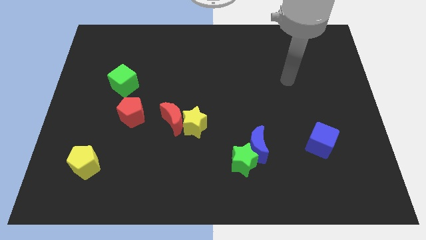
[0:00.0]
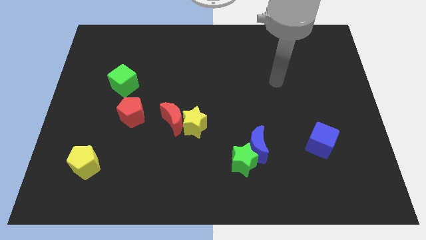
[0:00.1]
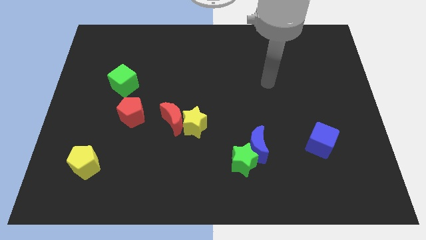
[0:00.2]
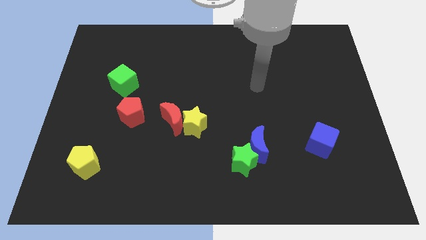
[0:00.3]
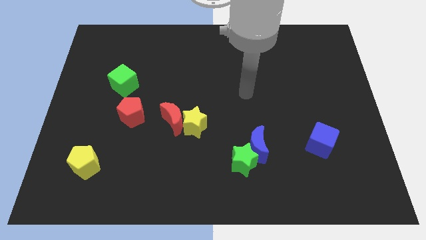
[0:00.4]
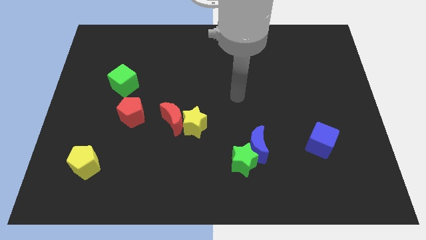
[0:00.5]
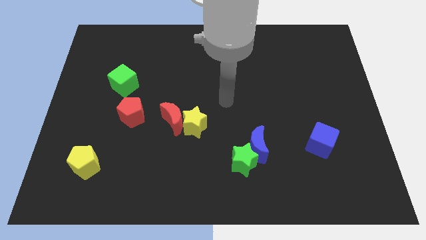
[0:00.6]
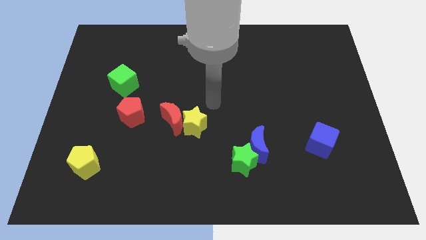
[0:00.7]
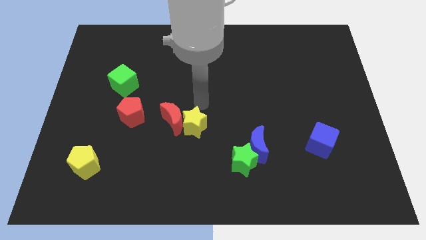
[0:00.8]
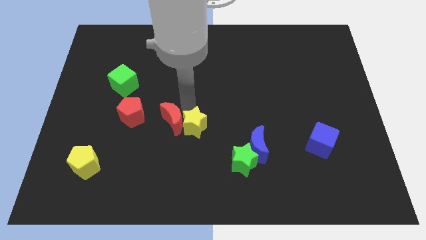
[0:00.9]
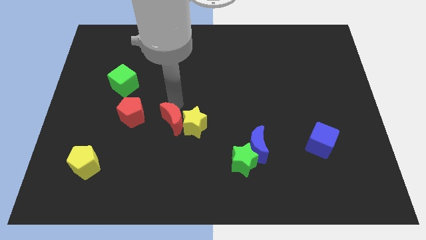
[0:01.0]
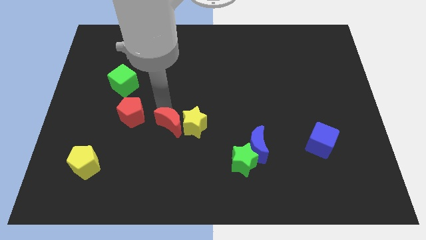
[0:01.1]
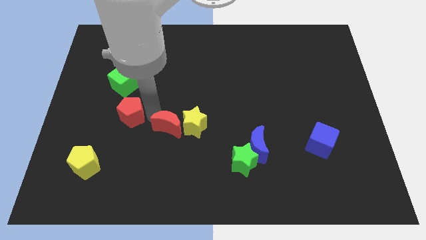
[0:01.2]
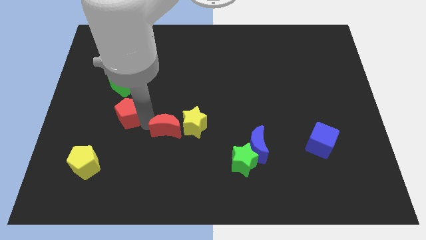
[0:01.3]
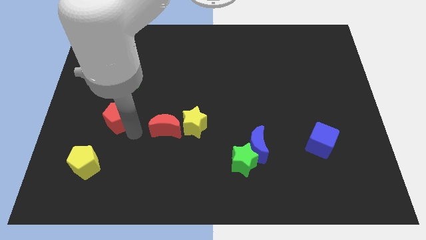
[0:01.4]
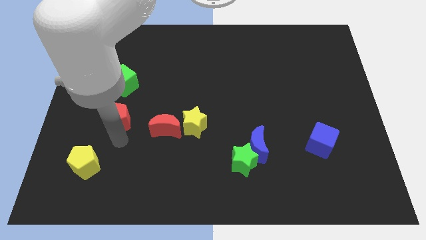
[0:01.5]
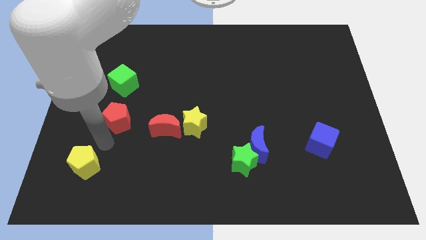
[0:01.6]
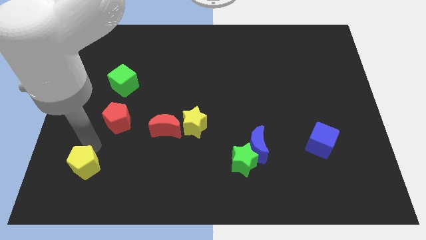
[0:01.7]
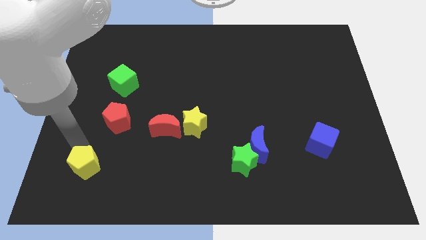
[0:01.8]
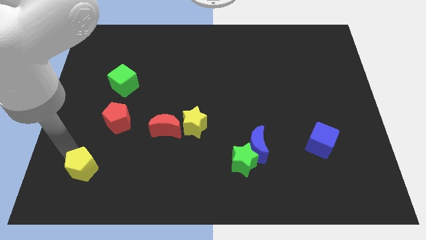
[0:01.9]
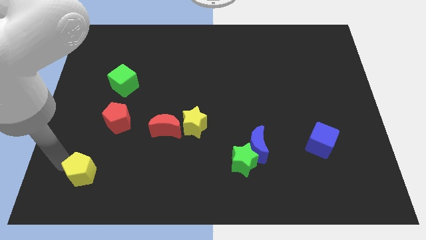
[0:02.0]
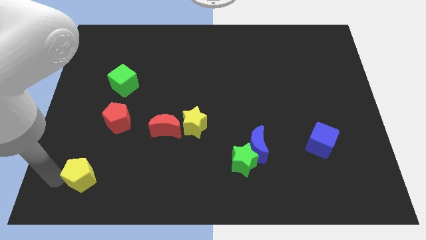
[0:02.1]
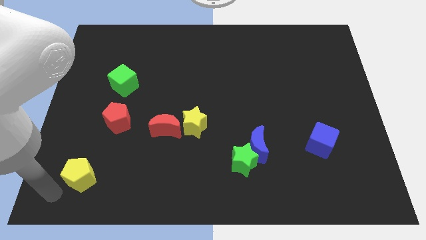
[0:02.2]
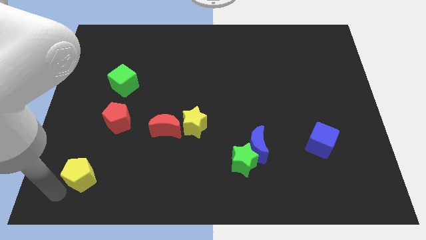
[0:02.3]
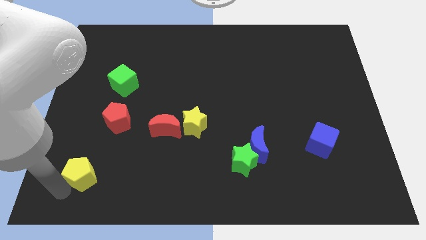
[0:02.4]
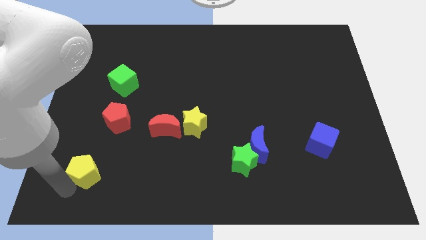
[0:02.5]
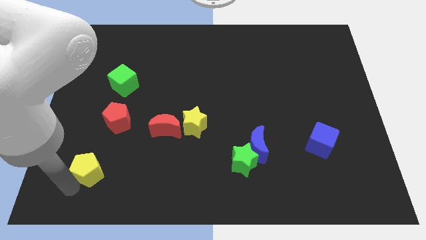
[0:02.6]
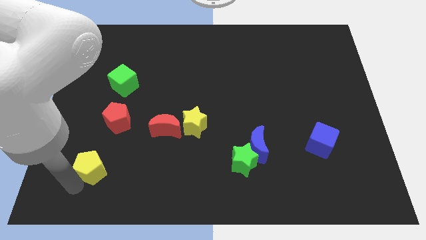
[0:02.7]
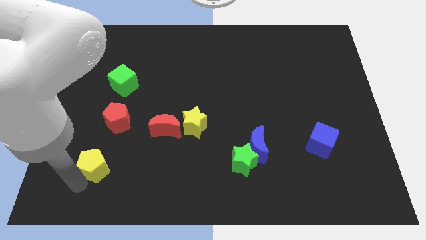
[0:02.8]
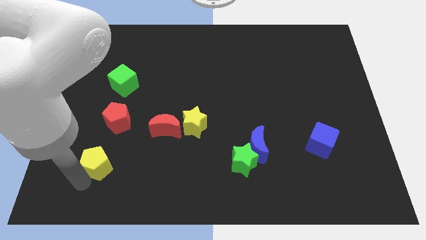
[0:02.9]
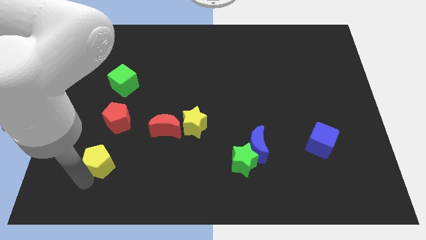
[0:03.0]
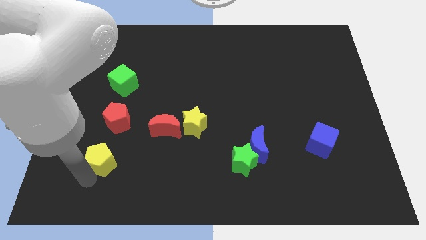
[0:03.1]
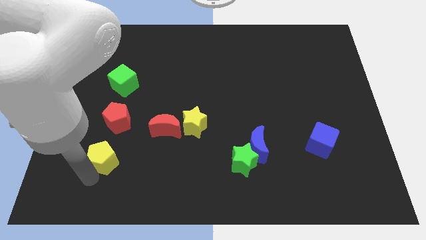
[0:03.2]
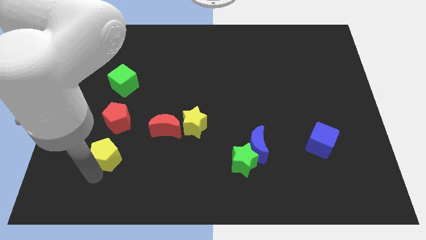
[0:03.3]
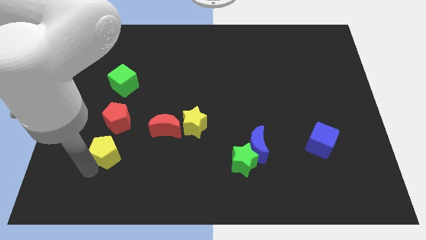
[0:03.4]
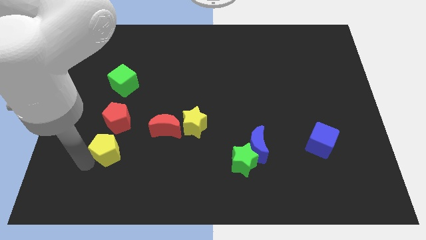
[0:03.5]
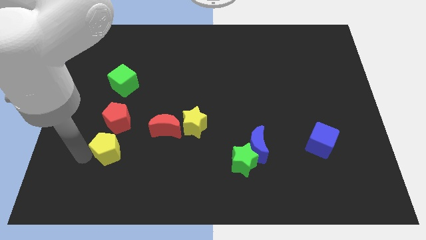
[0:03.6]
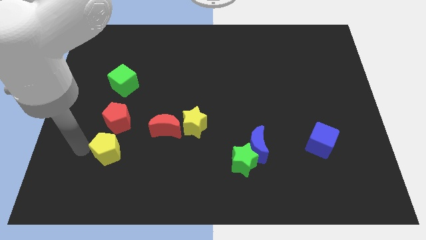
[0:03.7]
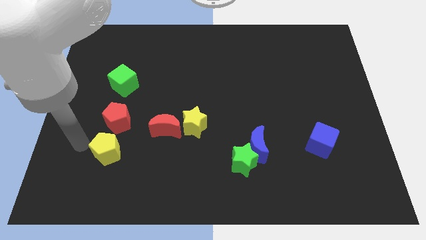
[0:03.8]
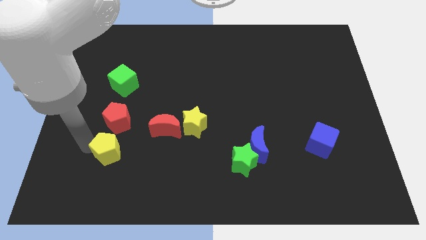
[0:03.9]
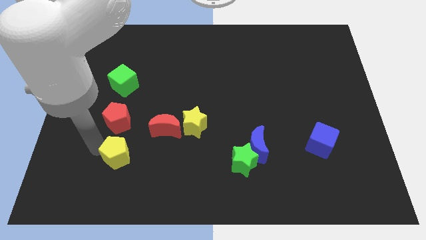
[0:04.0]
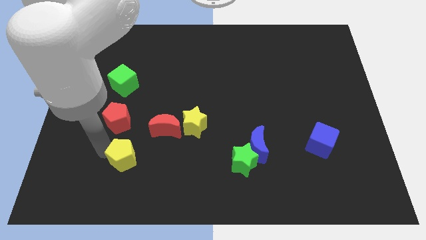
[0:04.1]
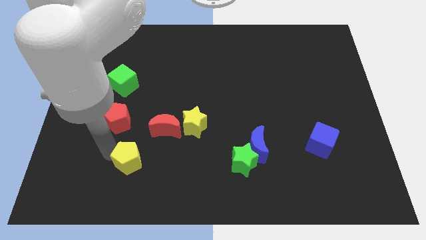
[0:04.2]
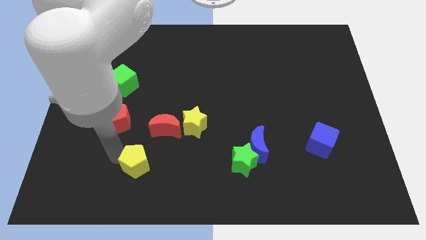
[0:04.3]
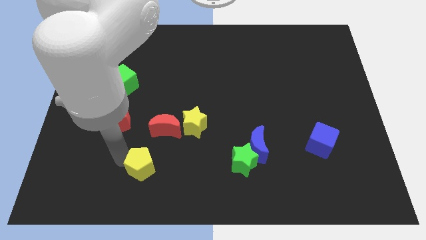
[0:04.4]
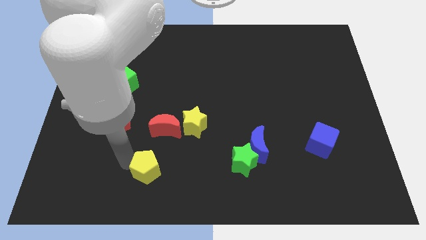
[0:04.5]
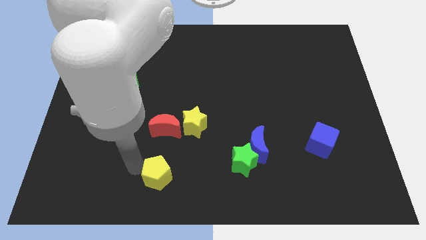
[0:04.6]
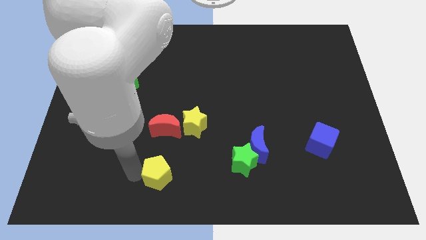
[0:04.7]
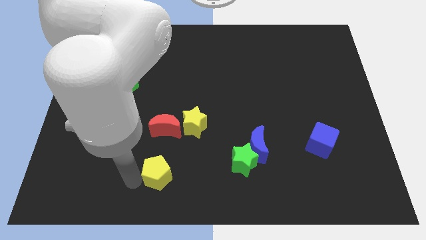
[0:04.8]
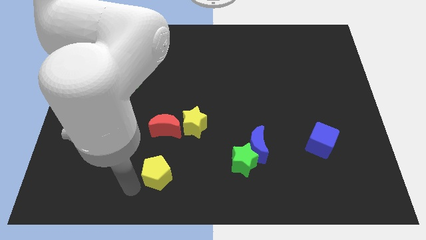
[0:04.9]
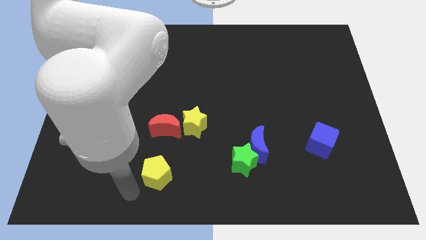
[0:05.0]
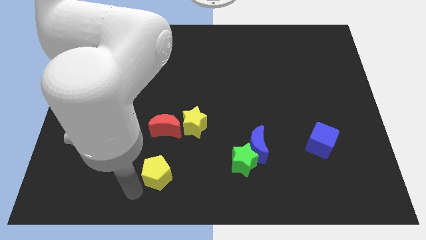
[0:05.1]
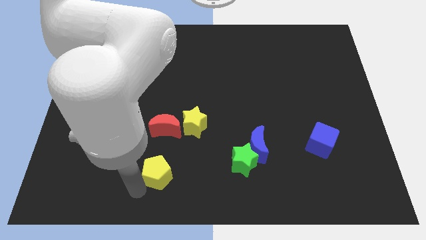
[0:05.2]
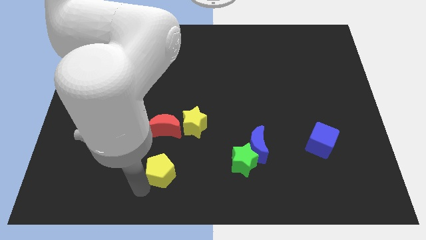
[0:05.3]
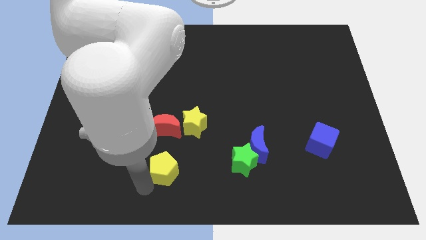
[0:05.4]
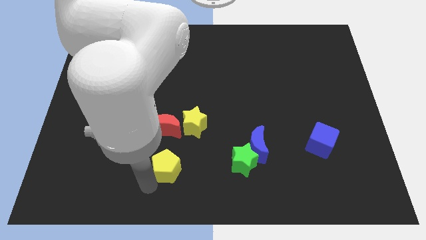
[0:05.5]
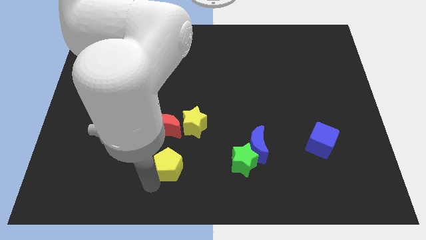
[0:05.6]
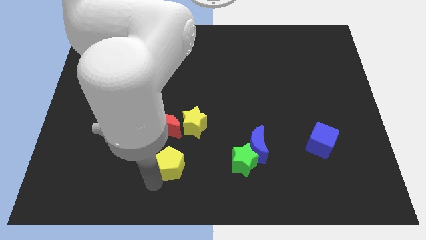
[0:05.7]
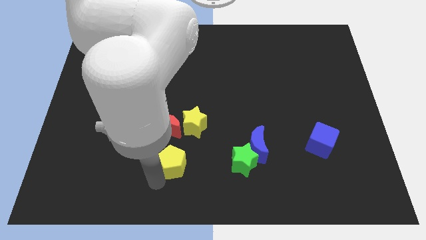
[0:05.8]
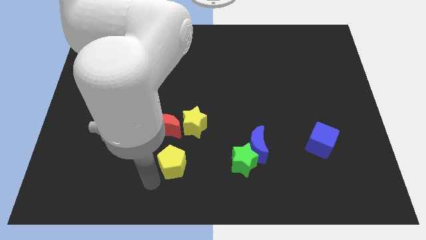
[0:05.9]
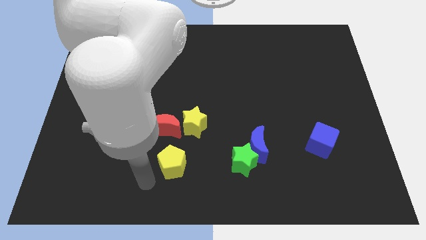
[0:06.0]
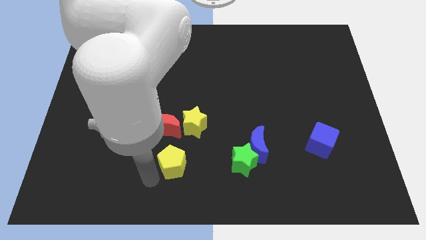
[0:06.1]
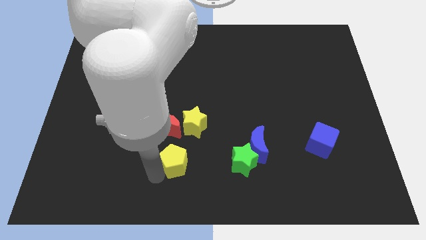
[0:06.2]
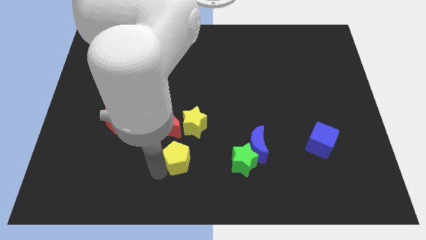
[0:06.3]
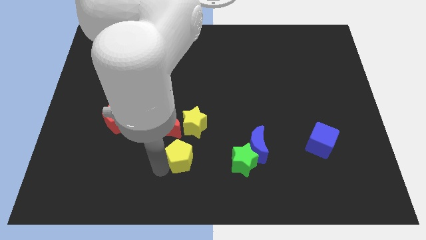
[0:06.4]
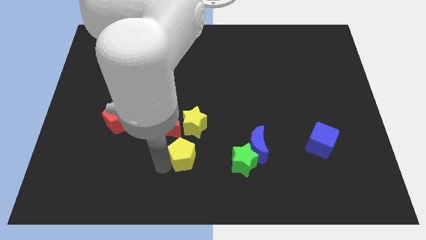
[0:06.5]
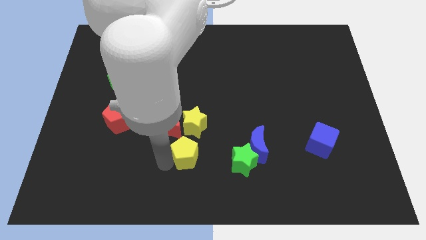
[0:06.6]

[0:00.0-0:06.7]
push the yellow pentagon to the left side of the blue moon

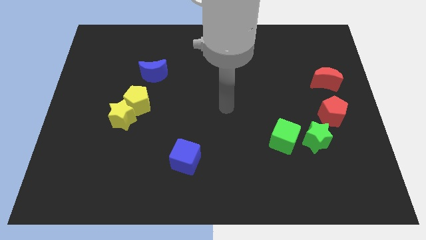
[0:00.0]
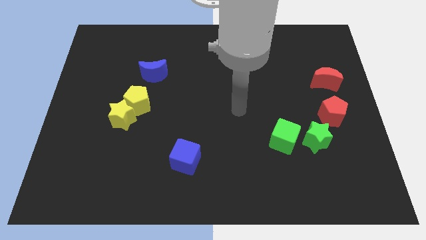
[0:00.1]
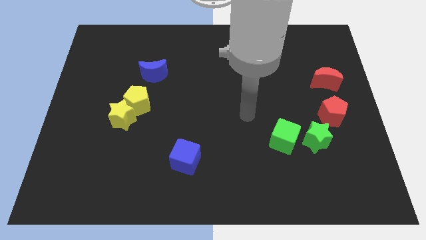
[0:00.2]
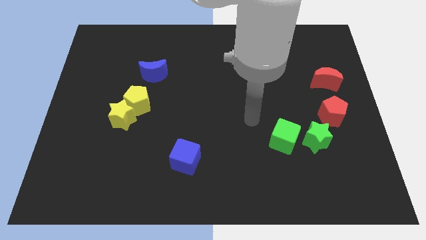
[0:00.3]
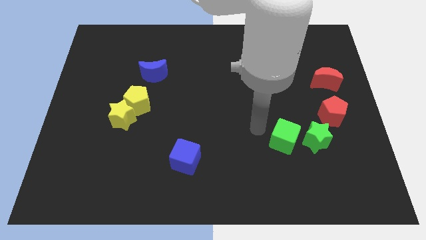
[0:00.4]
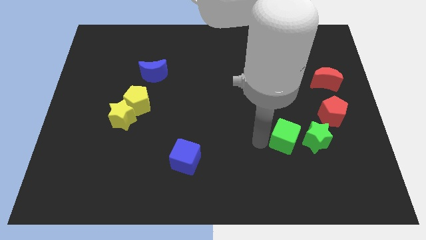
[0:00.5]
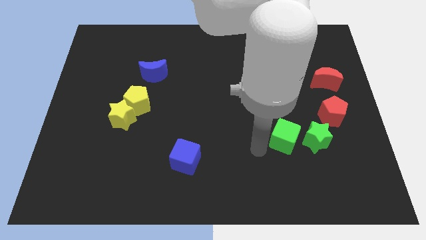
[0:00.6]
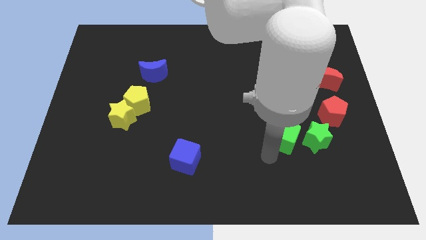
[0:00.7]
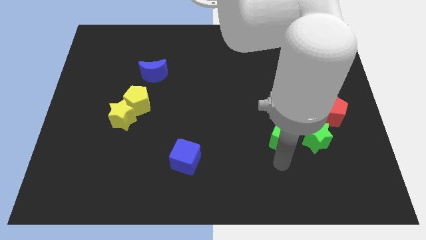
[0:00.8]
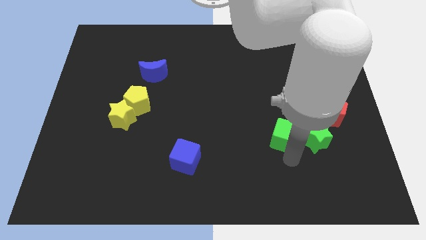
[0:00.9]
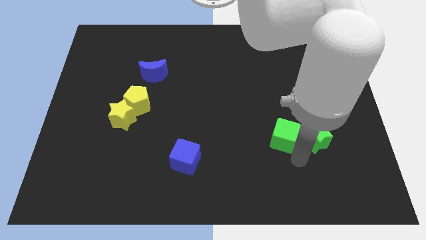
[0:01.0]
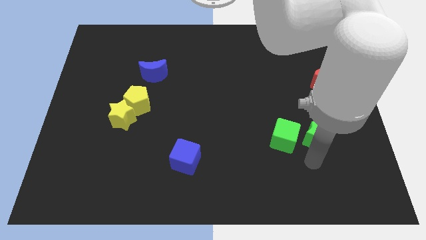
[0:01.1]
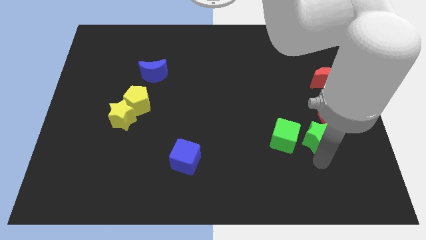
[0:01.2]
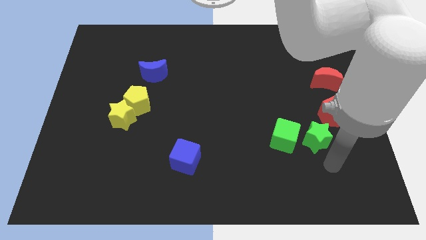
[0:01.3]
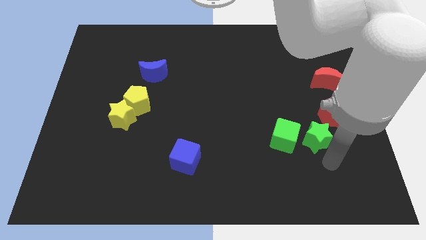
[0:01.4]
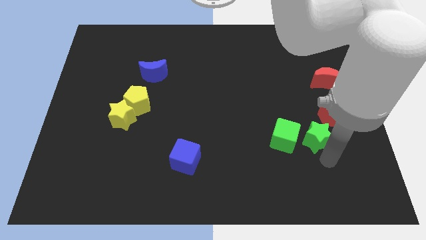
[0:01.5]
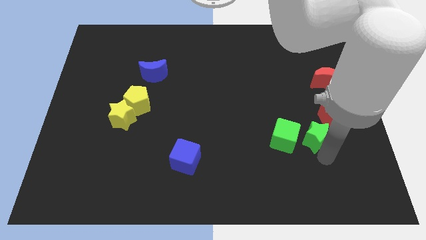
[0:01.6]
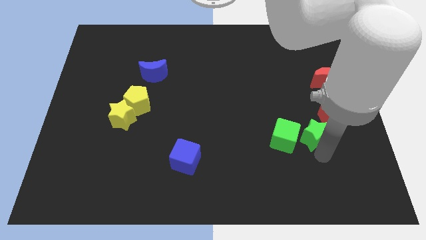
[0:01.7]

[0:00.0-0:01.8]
move the green star to the top right side of the green cube
